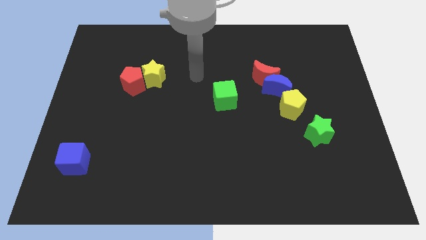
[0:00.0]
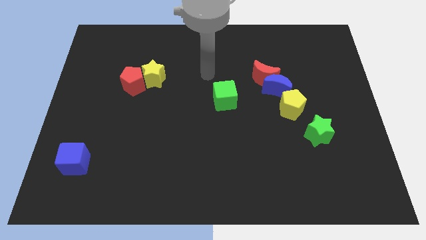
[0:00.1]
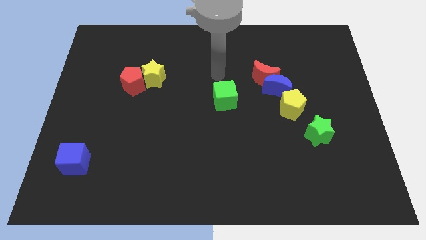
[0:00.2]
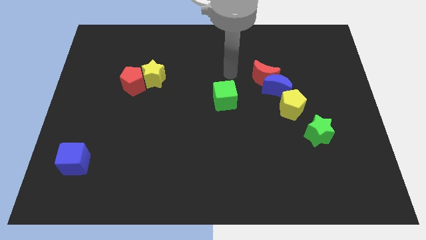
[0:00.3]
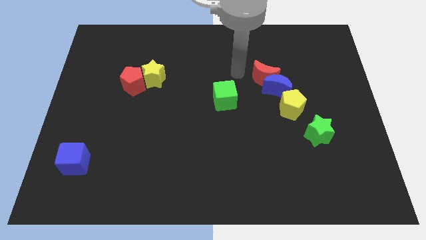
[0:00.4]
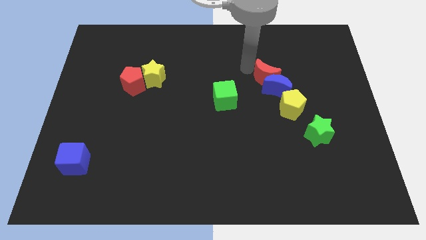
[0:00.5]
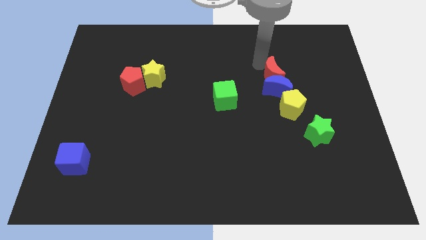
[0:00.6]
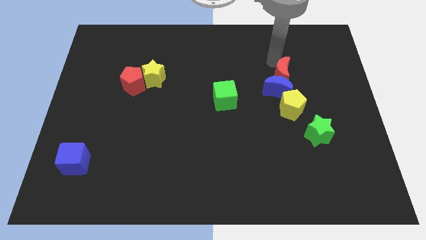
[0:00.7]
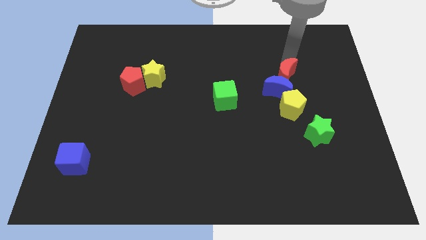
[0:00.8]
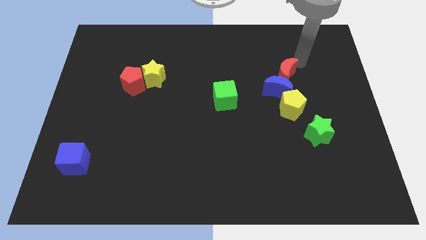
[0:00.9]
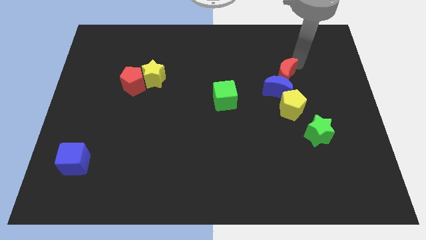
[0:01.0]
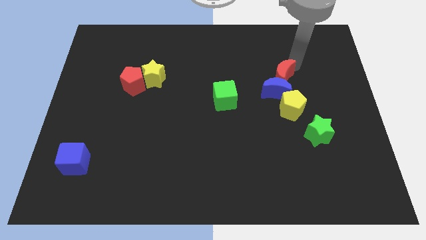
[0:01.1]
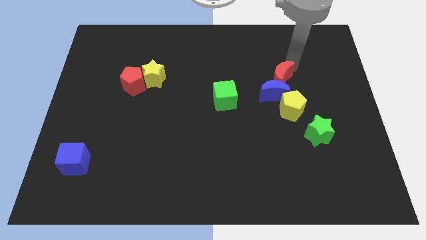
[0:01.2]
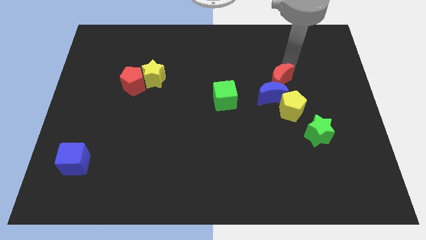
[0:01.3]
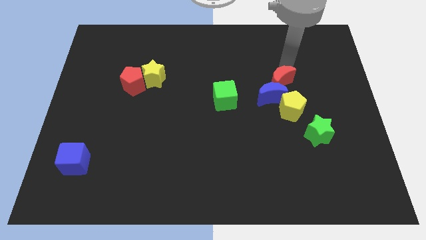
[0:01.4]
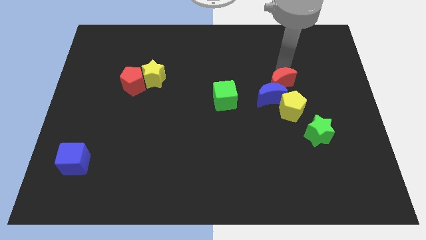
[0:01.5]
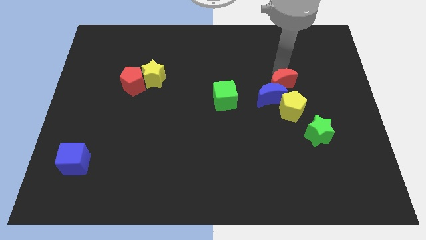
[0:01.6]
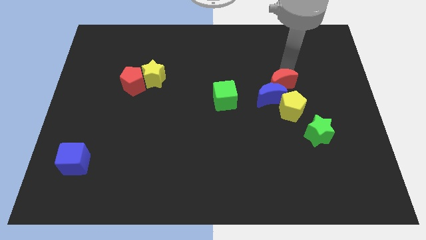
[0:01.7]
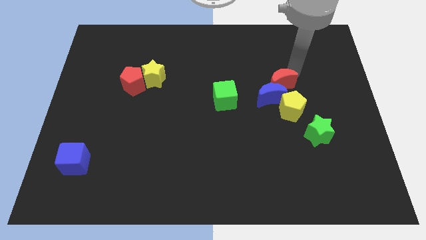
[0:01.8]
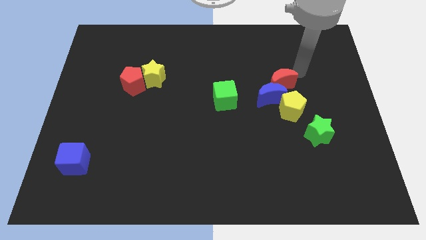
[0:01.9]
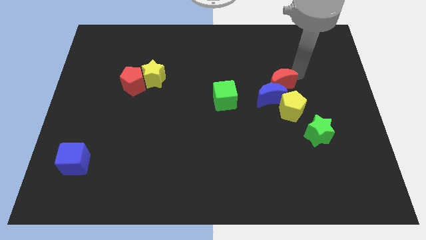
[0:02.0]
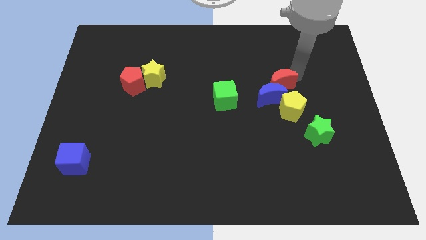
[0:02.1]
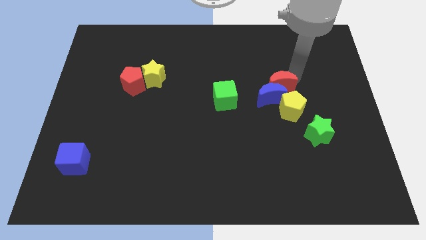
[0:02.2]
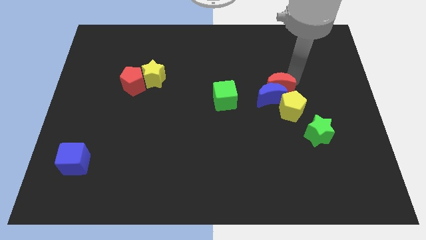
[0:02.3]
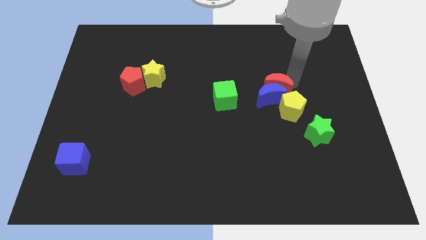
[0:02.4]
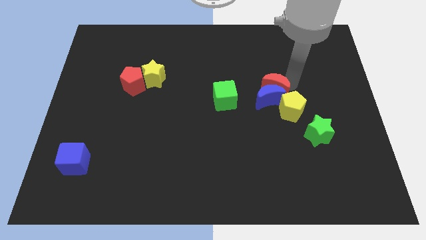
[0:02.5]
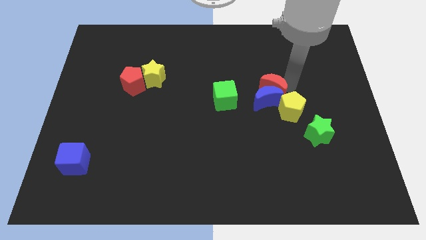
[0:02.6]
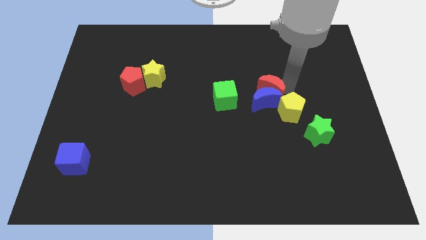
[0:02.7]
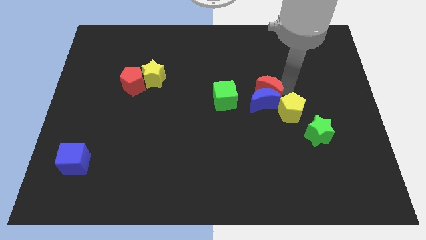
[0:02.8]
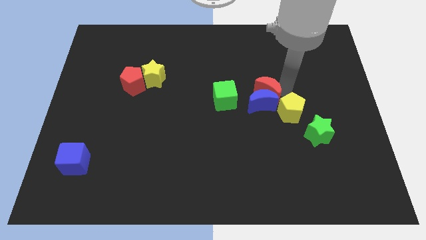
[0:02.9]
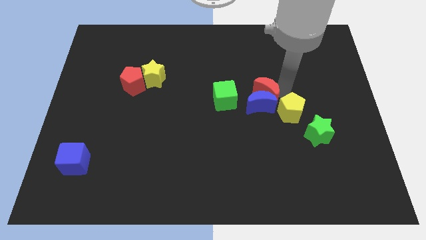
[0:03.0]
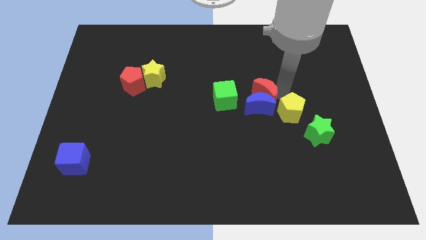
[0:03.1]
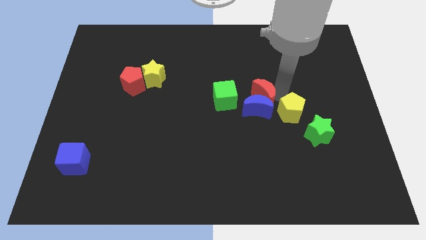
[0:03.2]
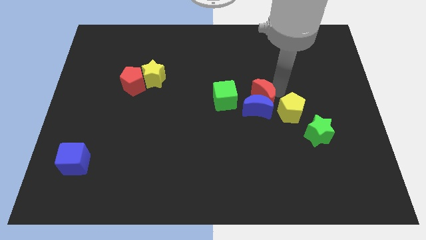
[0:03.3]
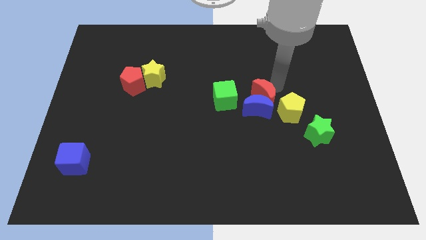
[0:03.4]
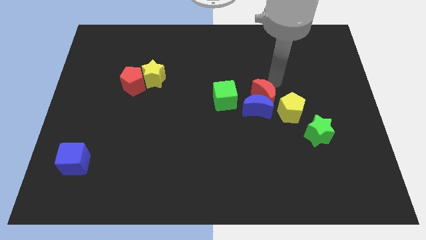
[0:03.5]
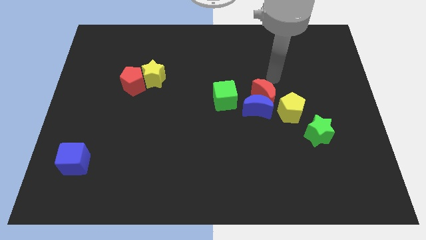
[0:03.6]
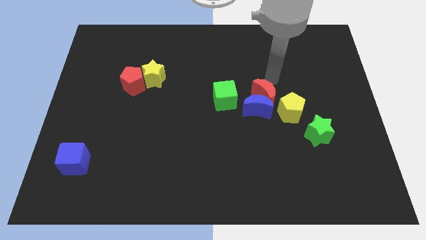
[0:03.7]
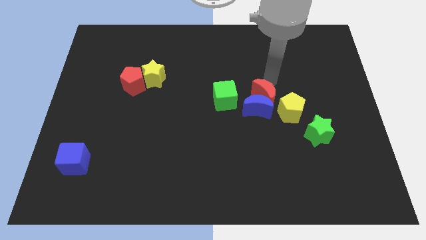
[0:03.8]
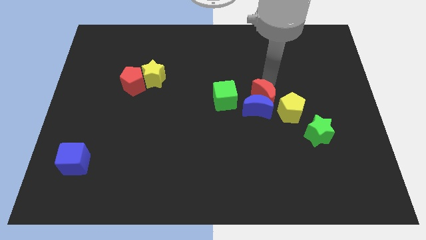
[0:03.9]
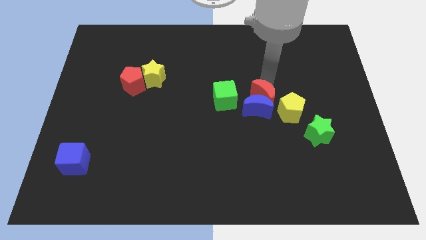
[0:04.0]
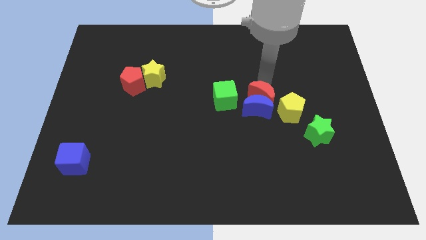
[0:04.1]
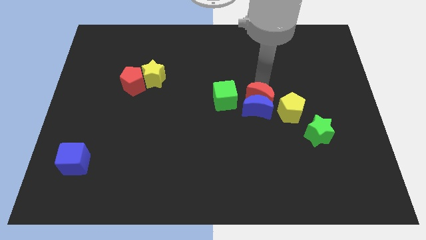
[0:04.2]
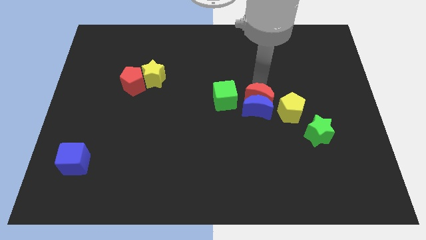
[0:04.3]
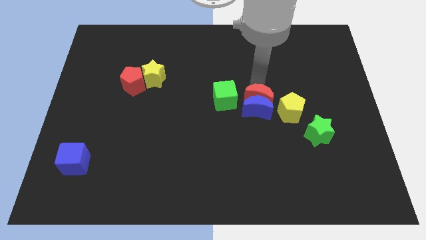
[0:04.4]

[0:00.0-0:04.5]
slide the red moon downwards somewhat

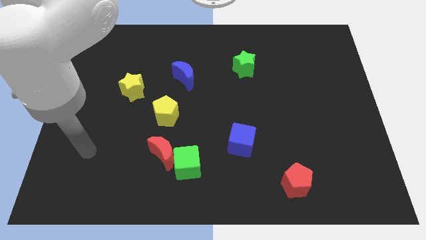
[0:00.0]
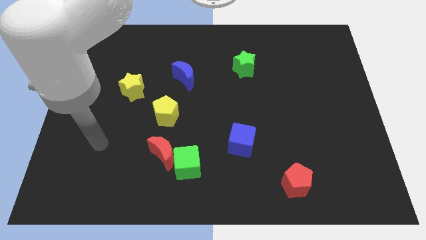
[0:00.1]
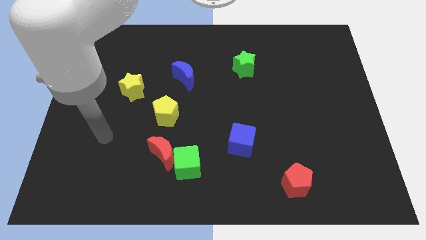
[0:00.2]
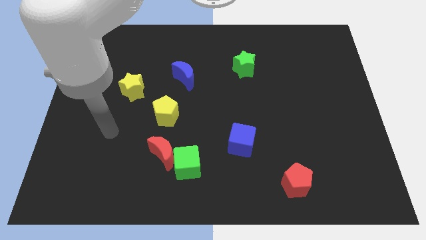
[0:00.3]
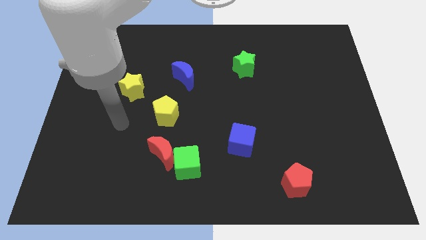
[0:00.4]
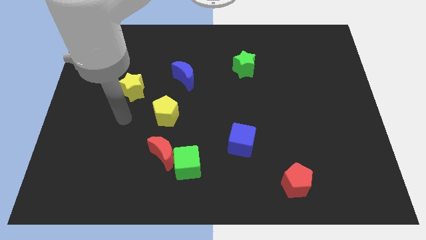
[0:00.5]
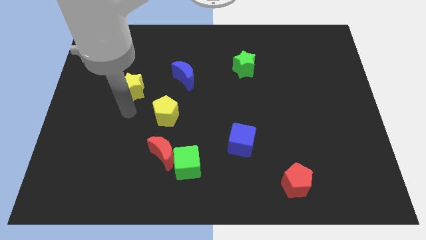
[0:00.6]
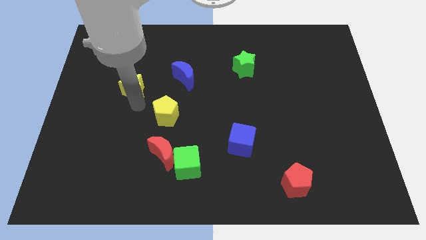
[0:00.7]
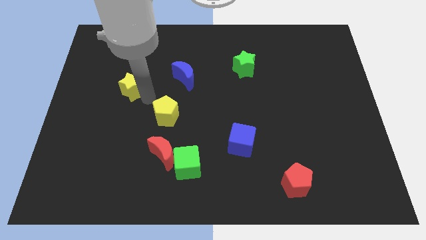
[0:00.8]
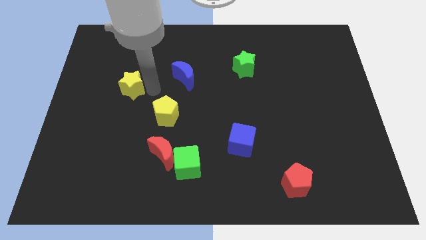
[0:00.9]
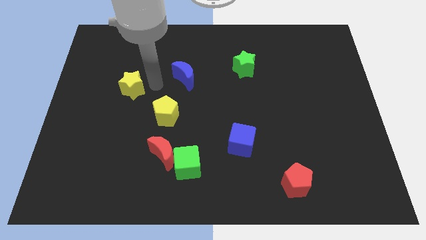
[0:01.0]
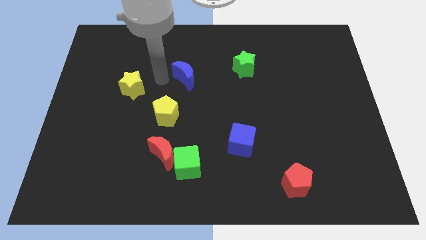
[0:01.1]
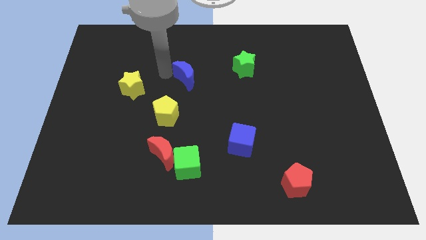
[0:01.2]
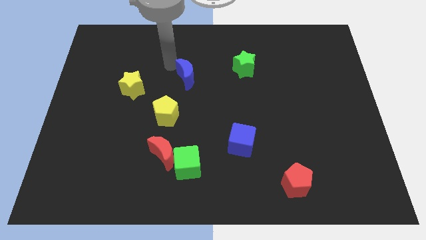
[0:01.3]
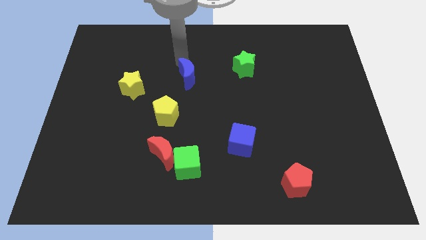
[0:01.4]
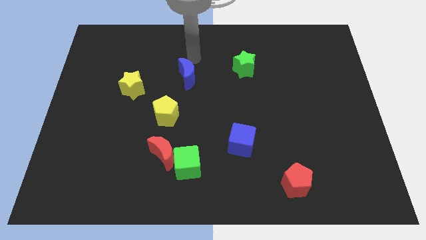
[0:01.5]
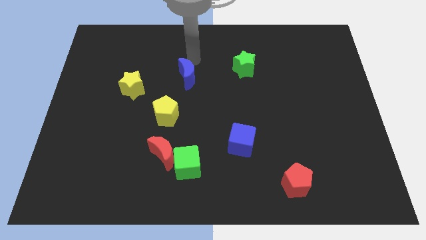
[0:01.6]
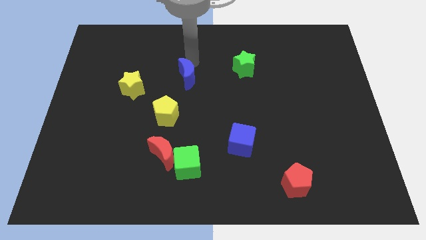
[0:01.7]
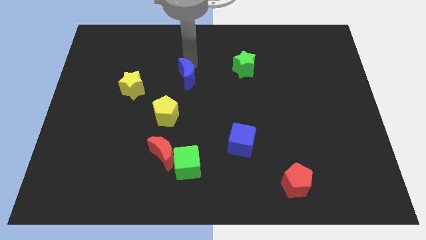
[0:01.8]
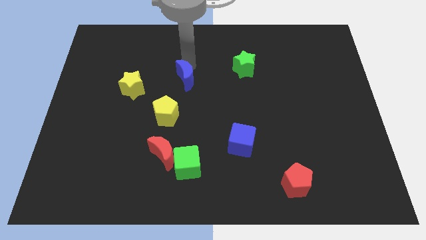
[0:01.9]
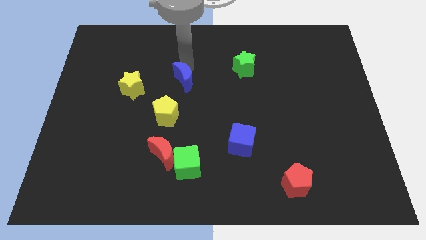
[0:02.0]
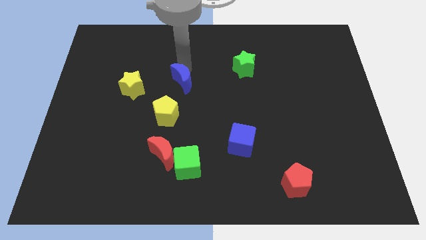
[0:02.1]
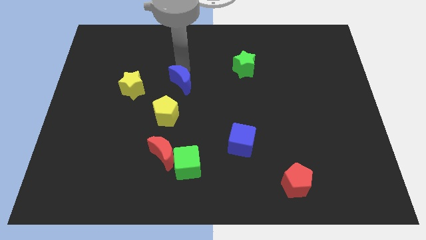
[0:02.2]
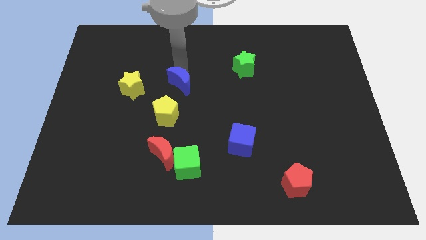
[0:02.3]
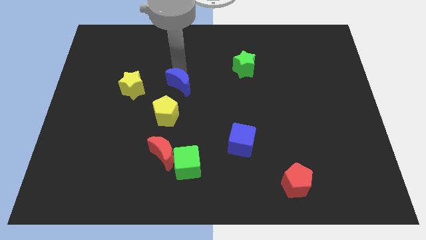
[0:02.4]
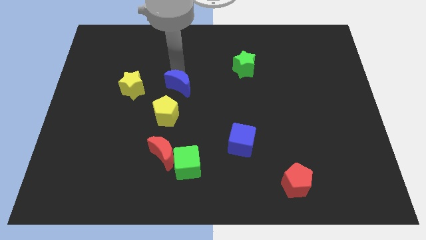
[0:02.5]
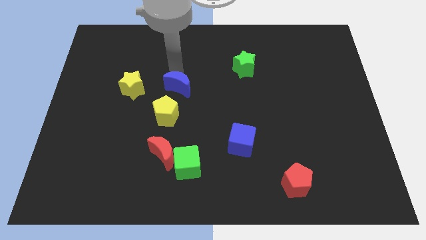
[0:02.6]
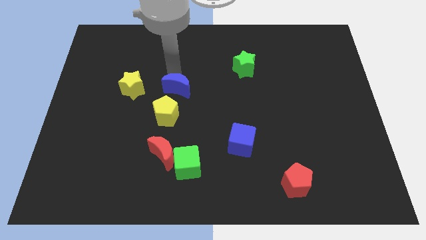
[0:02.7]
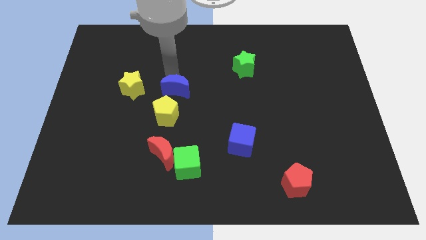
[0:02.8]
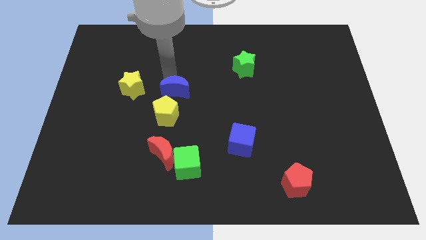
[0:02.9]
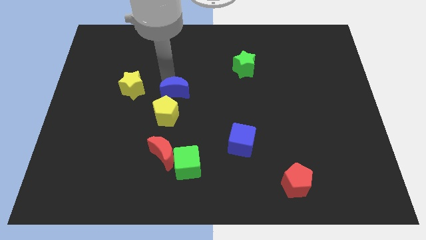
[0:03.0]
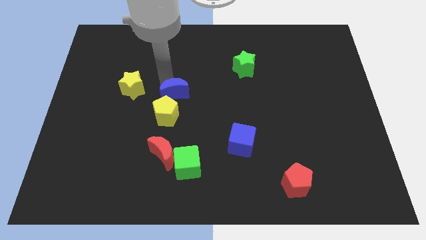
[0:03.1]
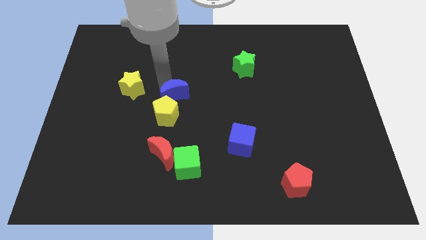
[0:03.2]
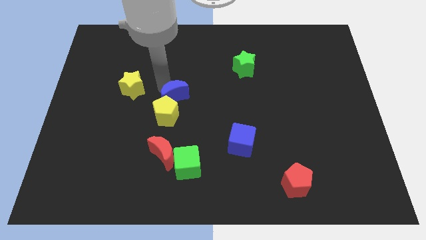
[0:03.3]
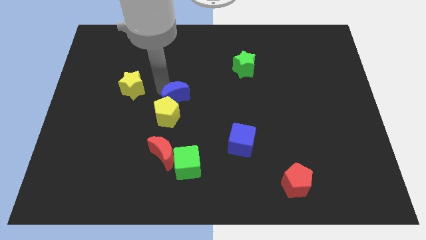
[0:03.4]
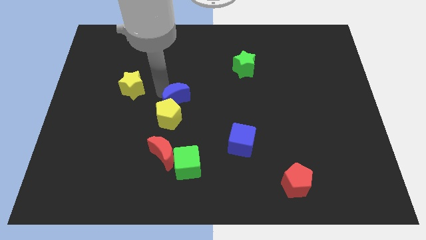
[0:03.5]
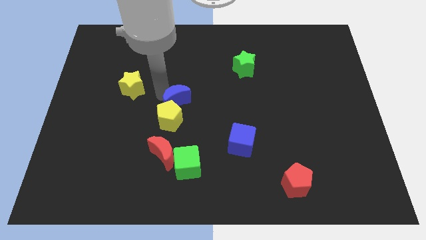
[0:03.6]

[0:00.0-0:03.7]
move the blue moon downwards a little bit

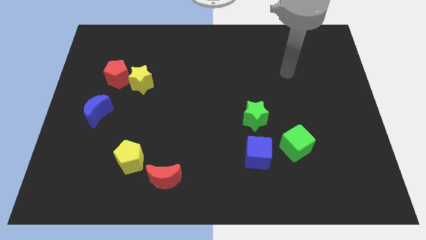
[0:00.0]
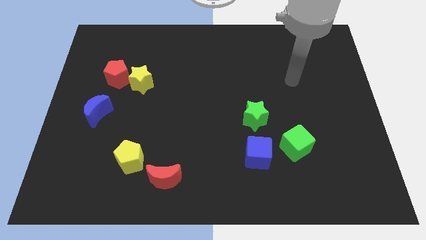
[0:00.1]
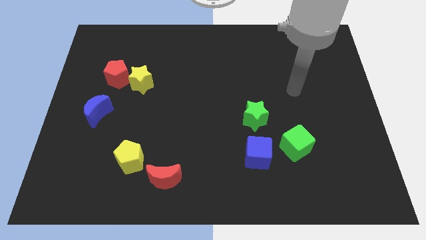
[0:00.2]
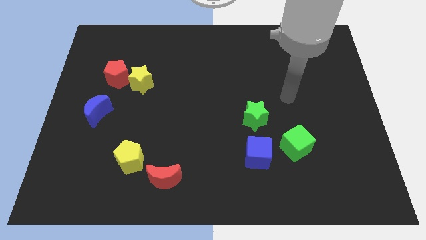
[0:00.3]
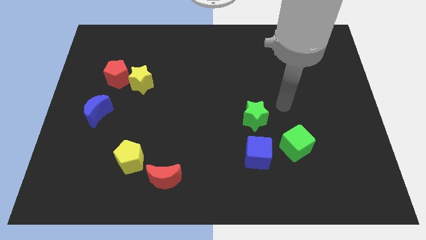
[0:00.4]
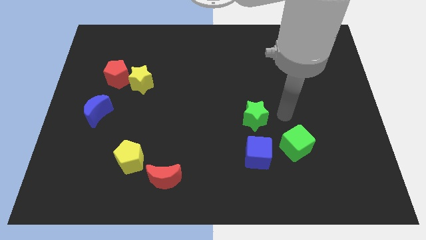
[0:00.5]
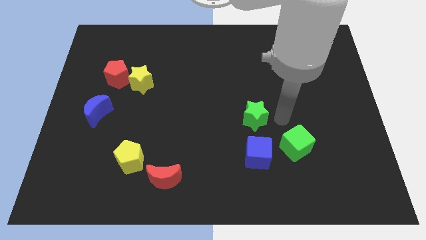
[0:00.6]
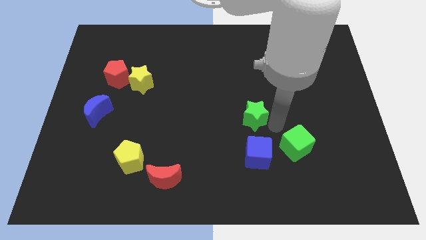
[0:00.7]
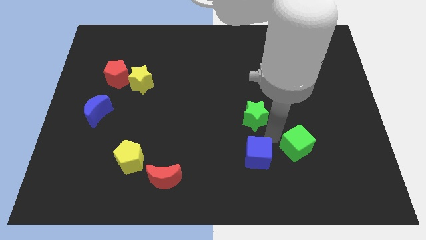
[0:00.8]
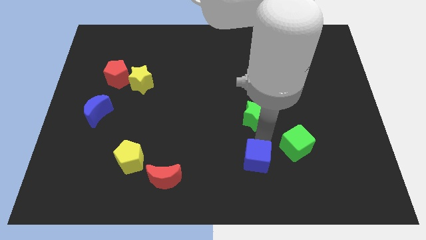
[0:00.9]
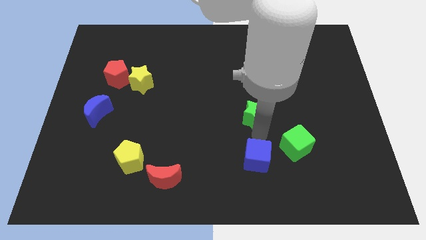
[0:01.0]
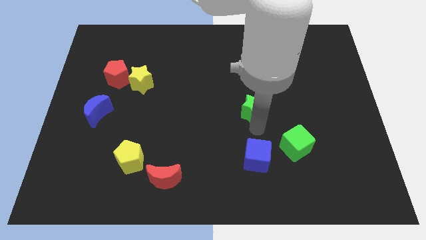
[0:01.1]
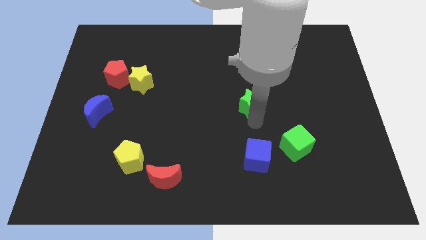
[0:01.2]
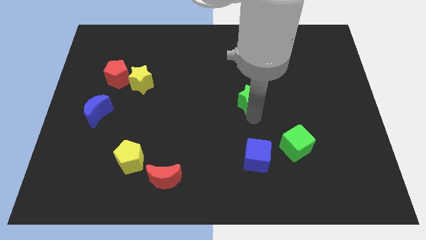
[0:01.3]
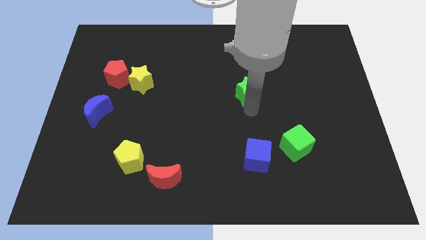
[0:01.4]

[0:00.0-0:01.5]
slide the green star upwards a bit
